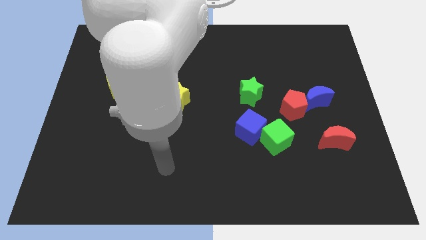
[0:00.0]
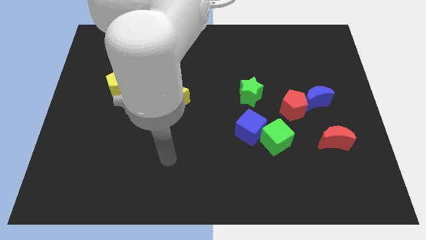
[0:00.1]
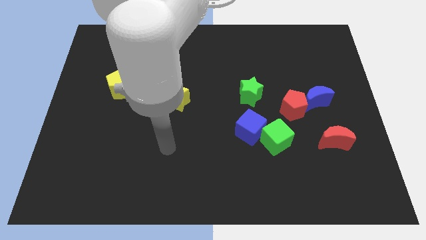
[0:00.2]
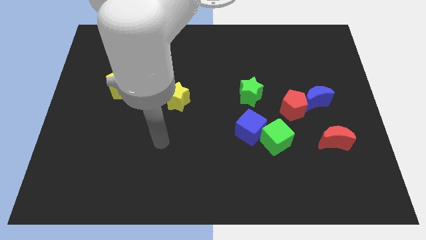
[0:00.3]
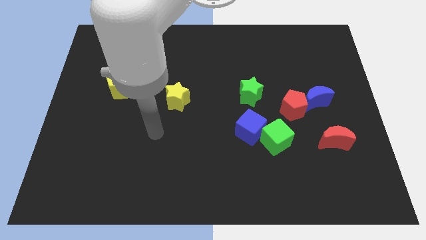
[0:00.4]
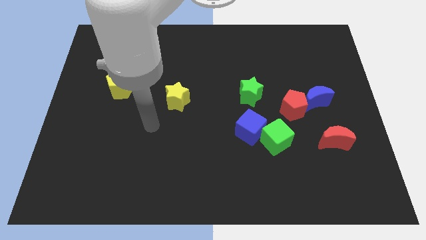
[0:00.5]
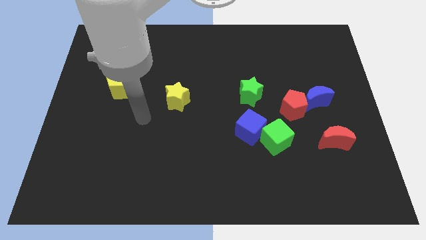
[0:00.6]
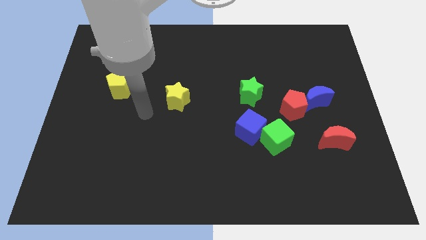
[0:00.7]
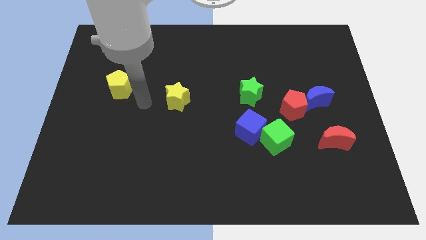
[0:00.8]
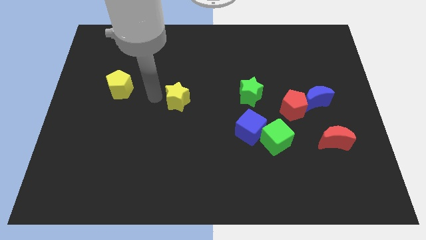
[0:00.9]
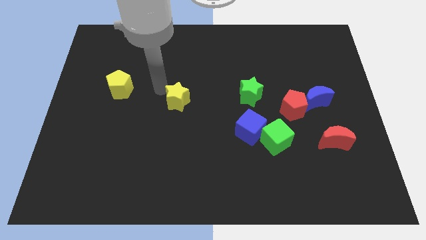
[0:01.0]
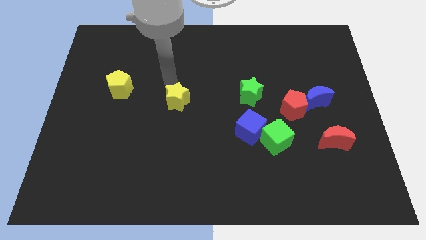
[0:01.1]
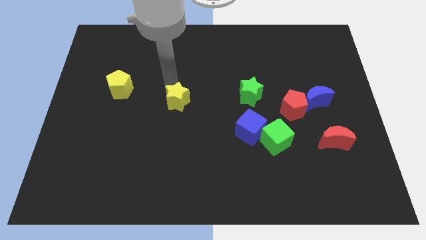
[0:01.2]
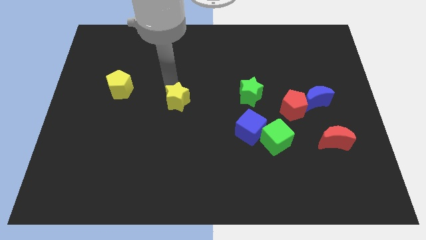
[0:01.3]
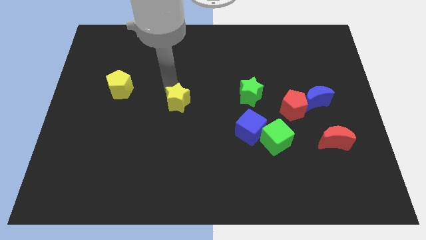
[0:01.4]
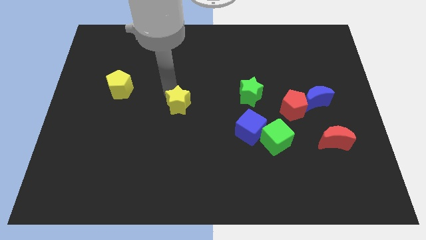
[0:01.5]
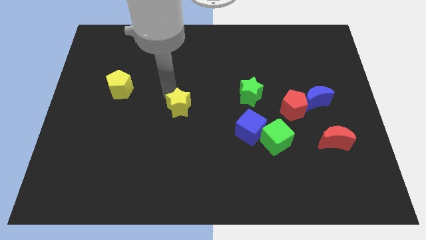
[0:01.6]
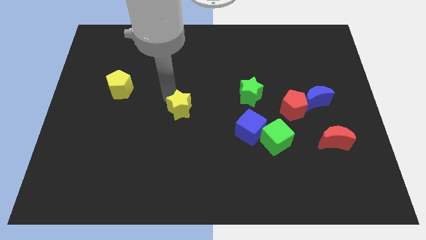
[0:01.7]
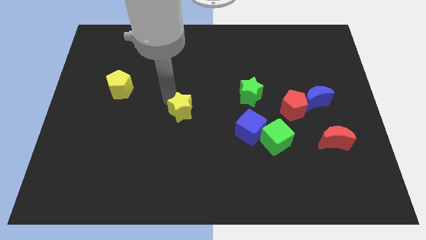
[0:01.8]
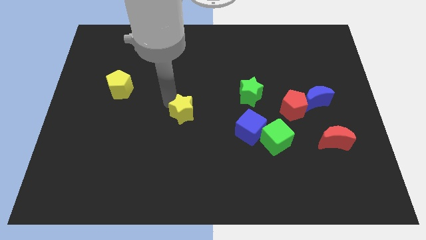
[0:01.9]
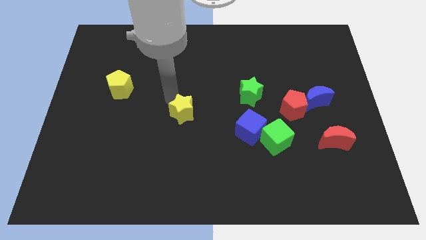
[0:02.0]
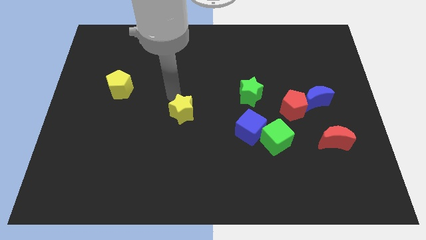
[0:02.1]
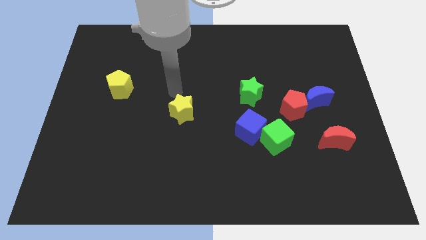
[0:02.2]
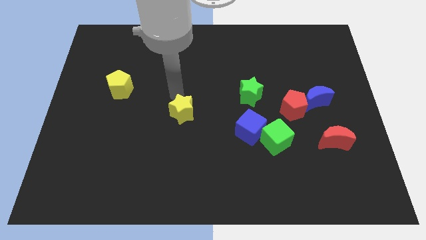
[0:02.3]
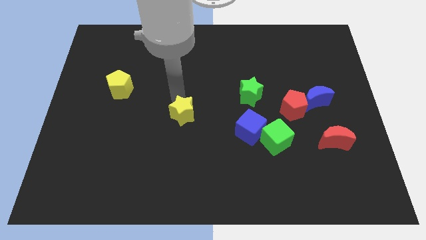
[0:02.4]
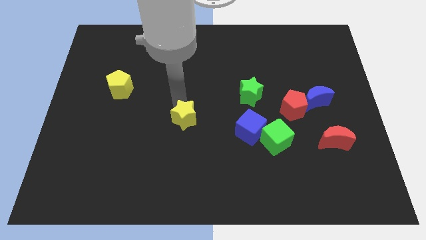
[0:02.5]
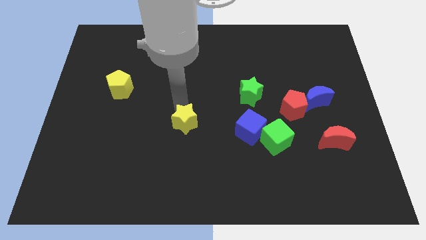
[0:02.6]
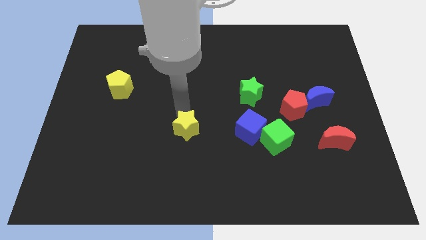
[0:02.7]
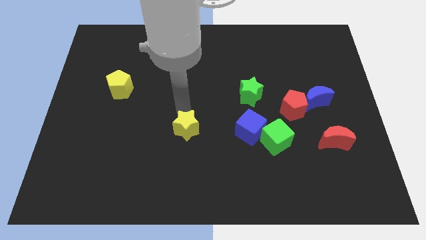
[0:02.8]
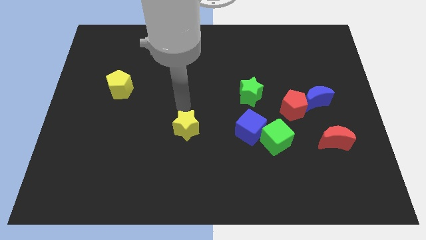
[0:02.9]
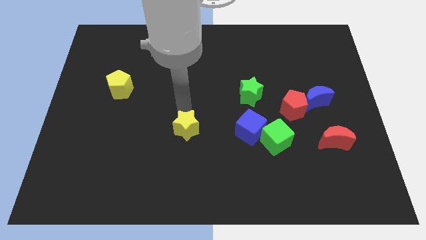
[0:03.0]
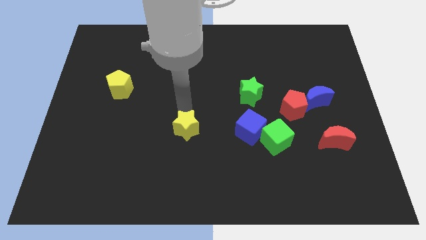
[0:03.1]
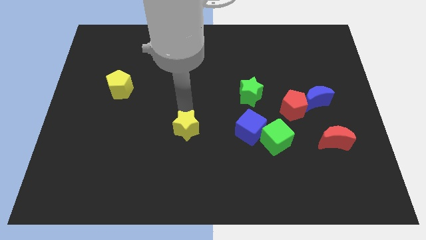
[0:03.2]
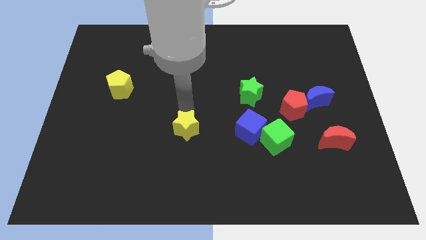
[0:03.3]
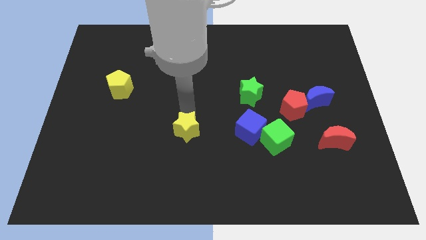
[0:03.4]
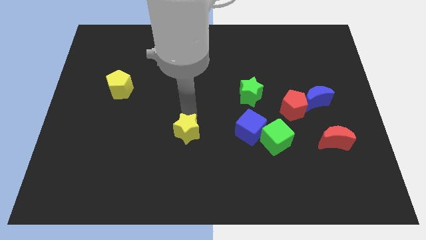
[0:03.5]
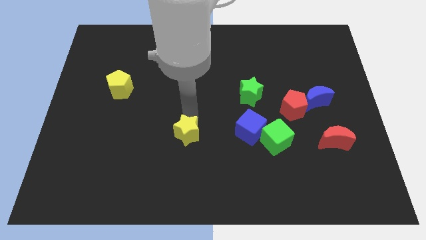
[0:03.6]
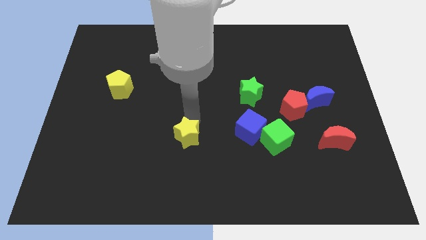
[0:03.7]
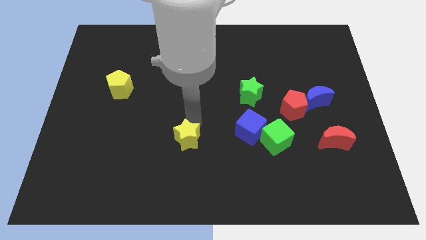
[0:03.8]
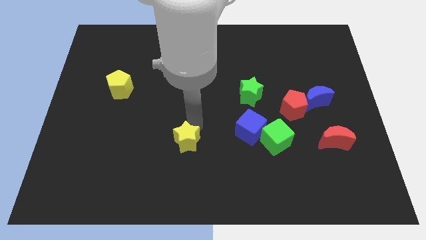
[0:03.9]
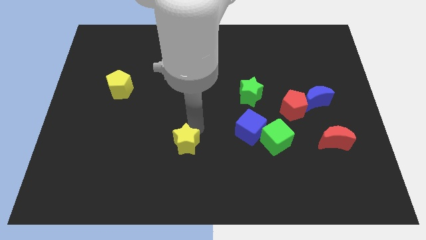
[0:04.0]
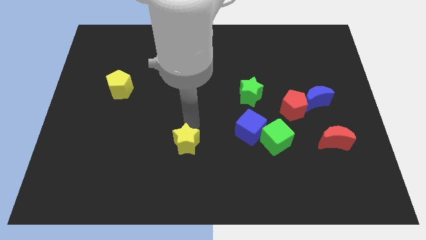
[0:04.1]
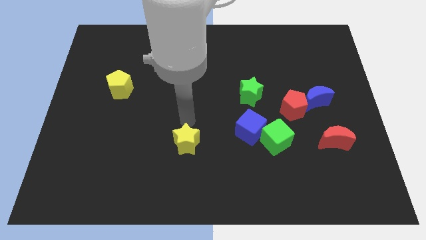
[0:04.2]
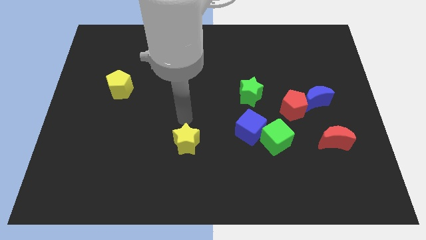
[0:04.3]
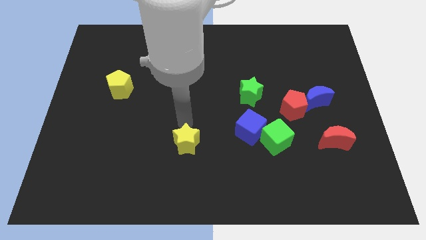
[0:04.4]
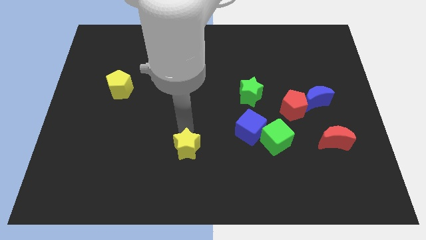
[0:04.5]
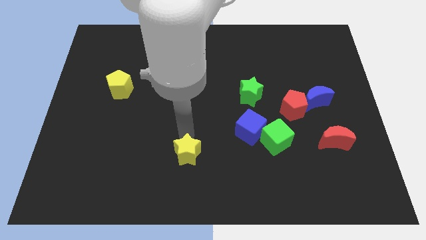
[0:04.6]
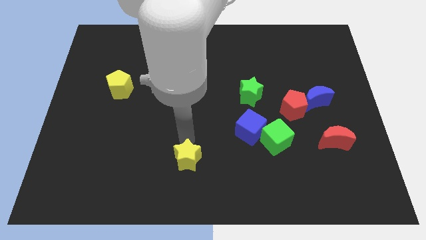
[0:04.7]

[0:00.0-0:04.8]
slide the yellow star to the bottom side

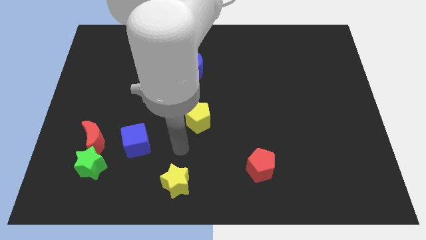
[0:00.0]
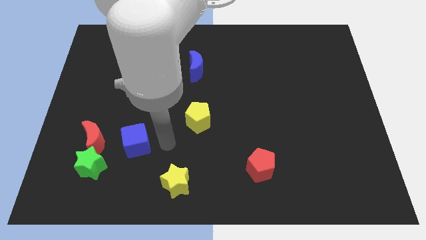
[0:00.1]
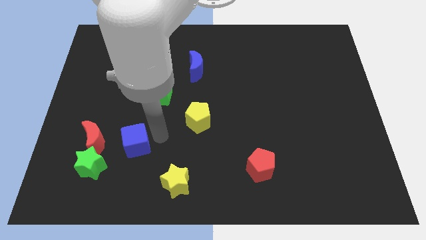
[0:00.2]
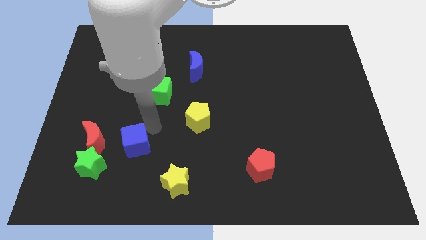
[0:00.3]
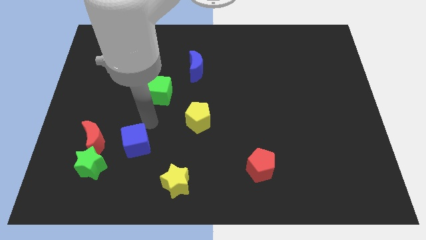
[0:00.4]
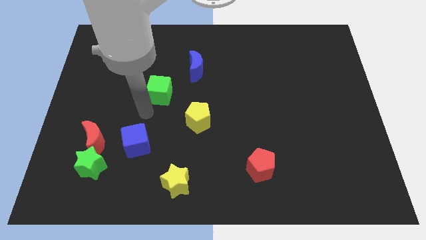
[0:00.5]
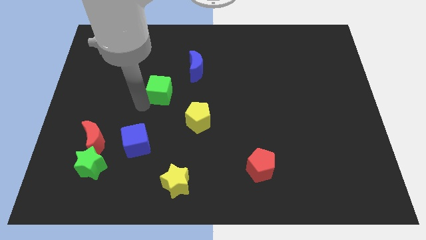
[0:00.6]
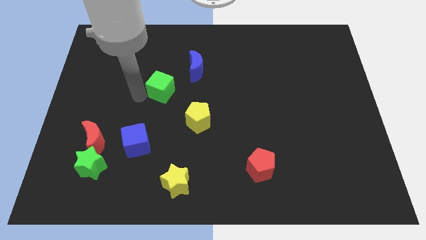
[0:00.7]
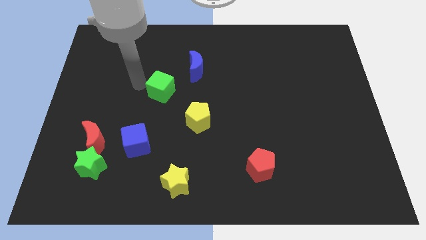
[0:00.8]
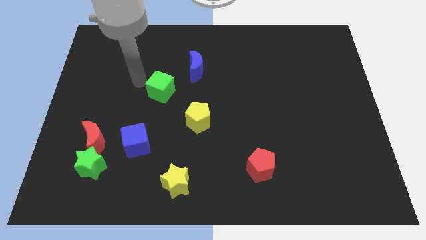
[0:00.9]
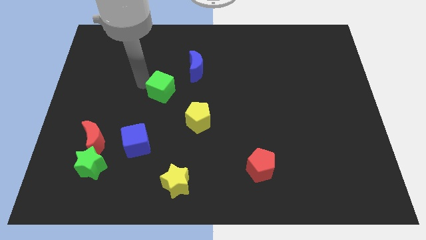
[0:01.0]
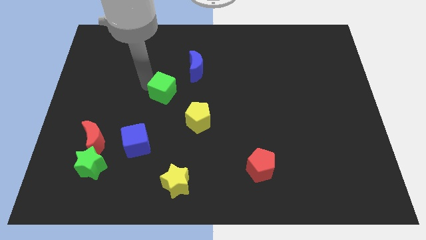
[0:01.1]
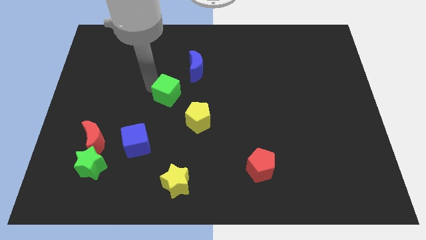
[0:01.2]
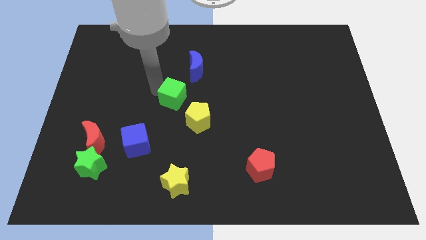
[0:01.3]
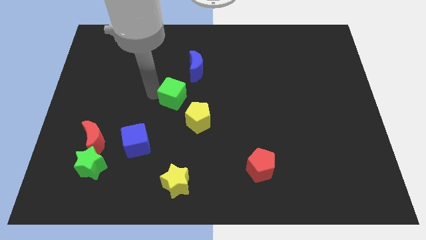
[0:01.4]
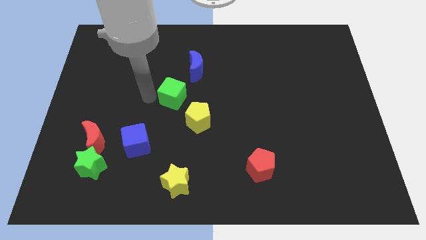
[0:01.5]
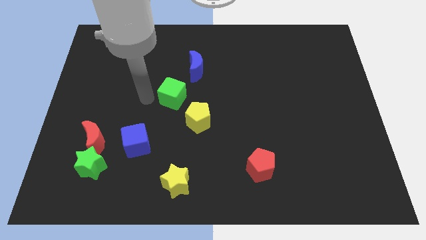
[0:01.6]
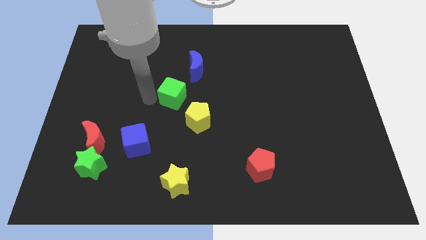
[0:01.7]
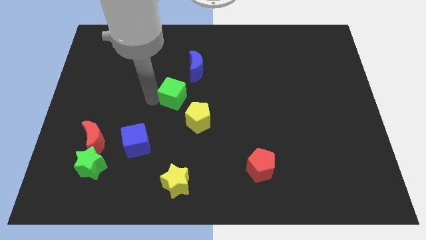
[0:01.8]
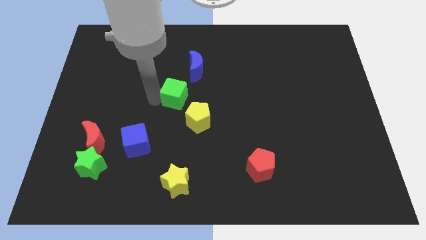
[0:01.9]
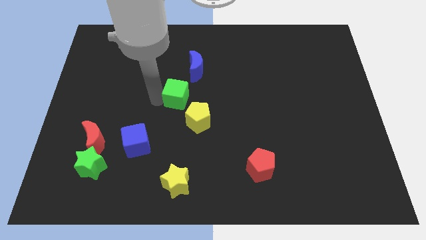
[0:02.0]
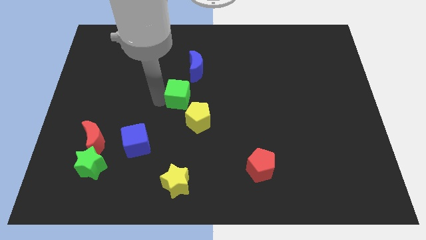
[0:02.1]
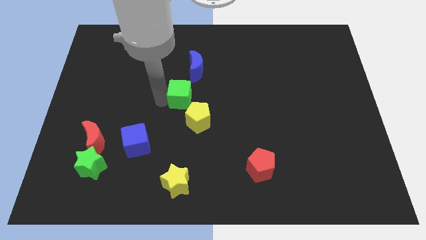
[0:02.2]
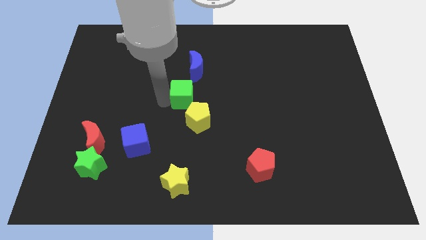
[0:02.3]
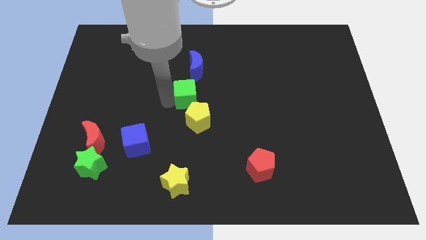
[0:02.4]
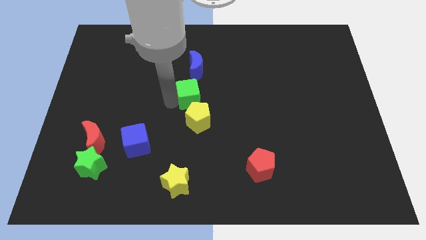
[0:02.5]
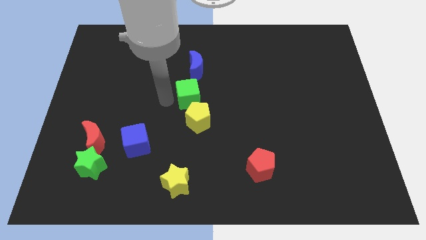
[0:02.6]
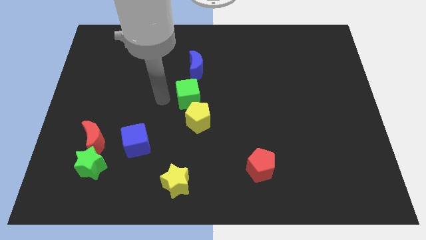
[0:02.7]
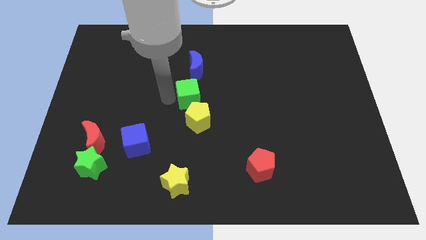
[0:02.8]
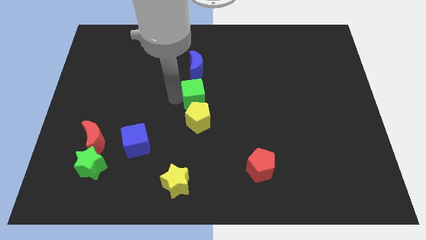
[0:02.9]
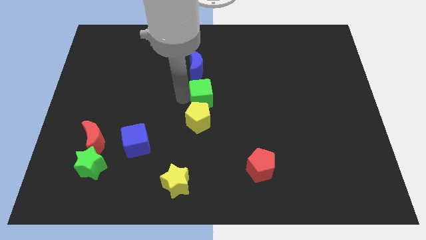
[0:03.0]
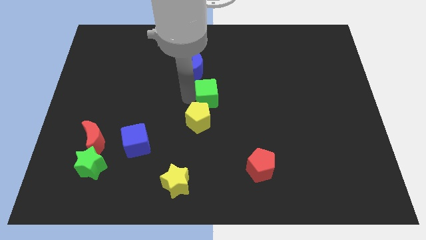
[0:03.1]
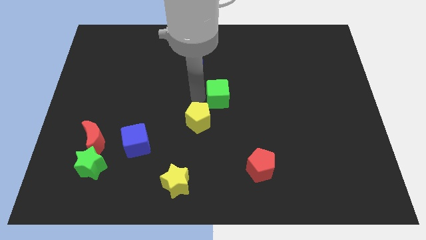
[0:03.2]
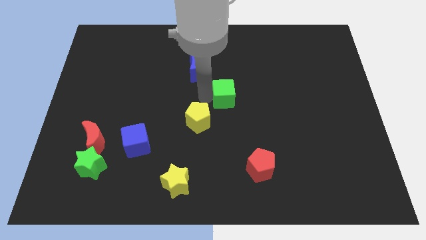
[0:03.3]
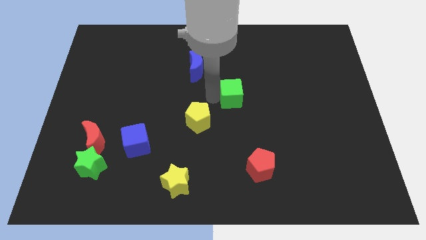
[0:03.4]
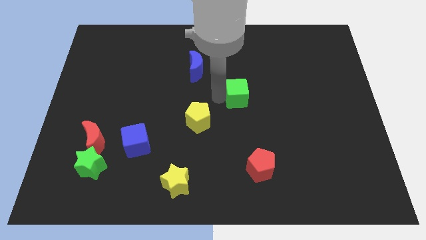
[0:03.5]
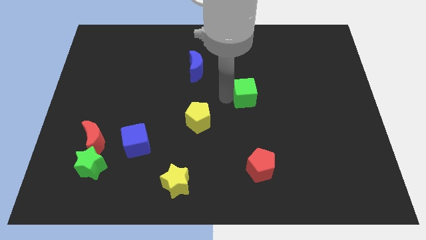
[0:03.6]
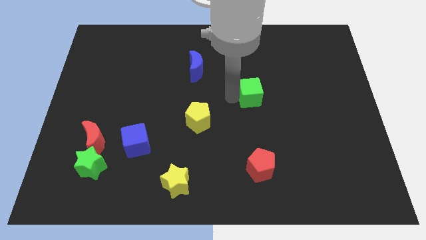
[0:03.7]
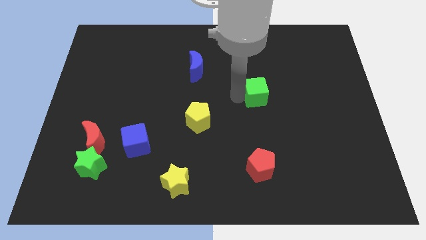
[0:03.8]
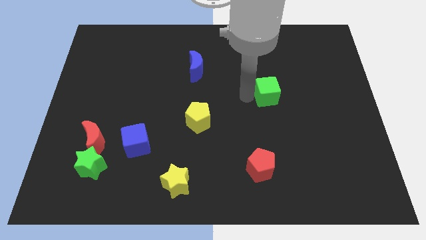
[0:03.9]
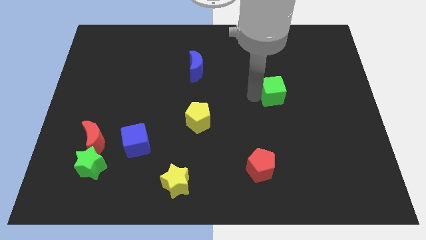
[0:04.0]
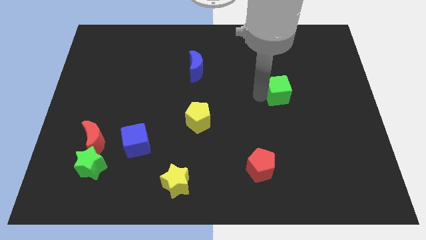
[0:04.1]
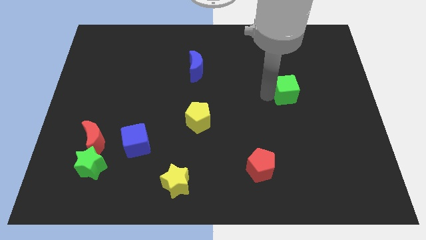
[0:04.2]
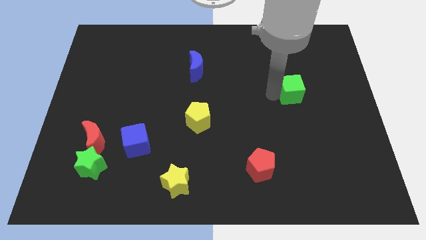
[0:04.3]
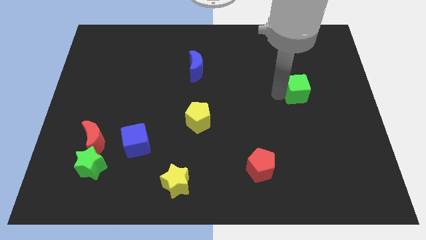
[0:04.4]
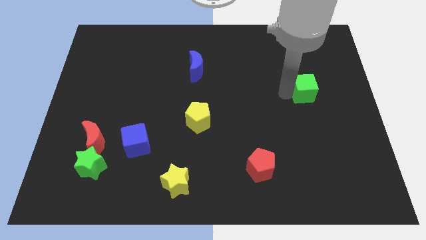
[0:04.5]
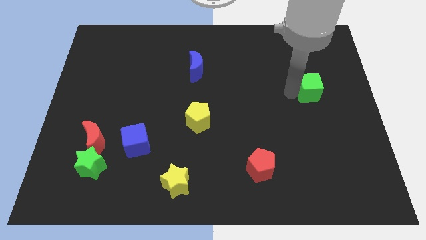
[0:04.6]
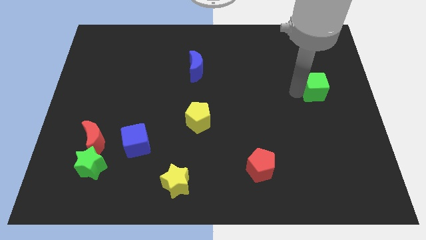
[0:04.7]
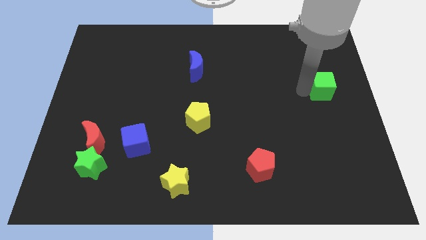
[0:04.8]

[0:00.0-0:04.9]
move the green cube to the right side of the board
